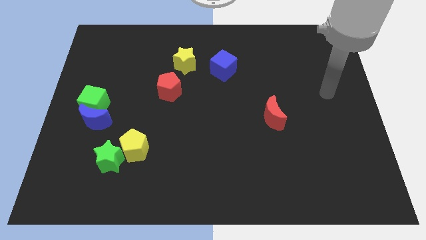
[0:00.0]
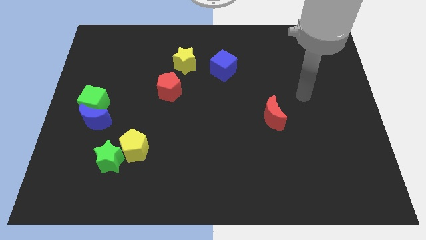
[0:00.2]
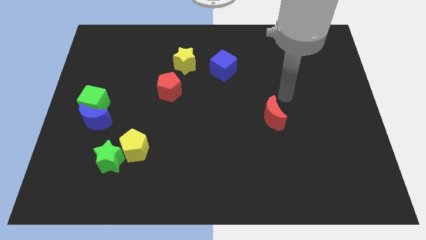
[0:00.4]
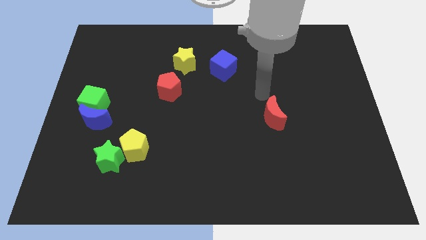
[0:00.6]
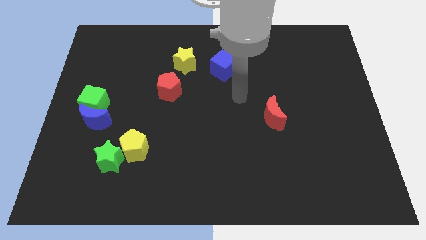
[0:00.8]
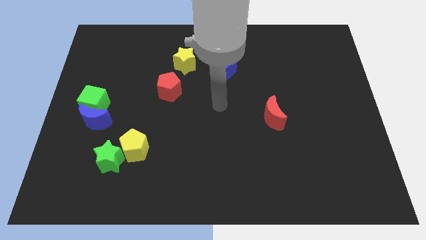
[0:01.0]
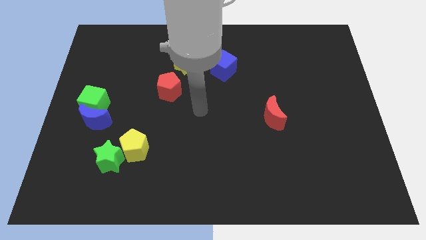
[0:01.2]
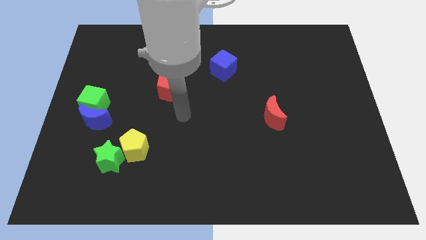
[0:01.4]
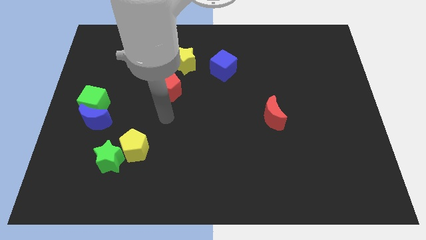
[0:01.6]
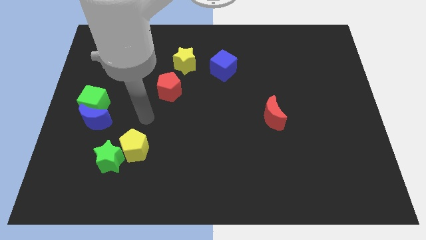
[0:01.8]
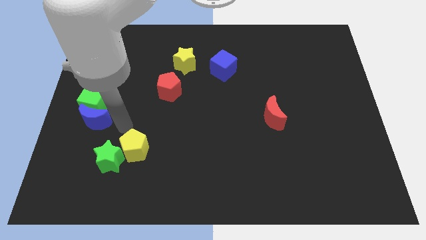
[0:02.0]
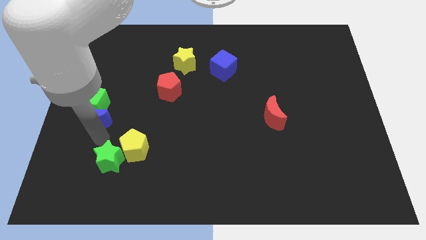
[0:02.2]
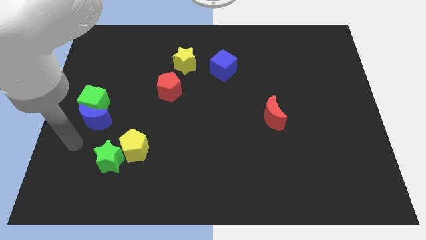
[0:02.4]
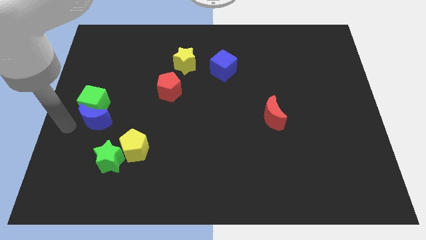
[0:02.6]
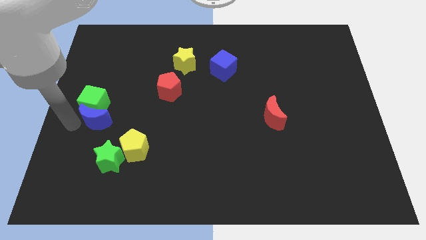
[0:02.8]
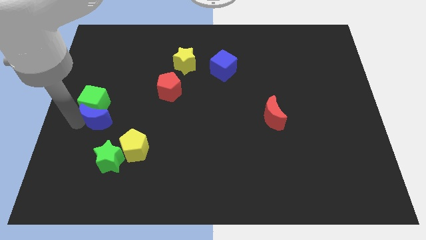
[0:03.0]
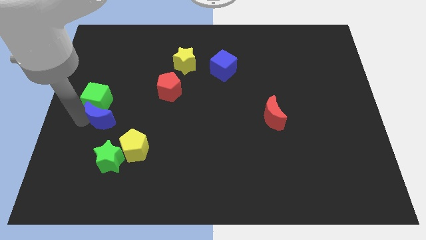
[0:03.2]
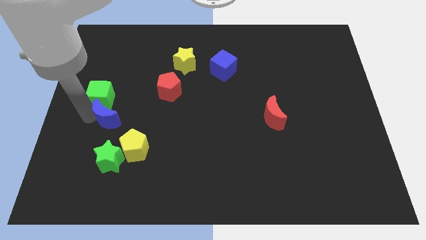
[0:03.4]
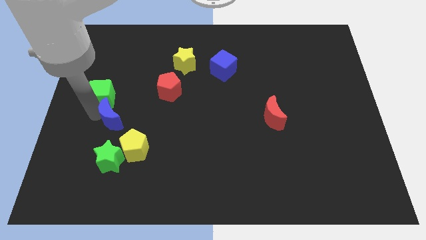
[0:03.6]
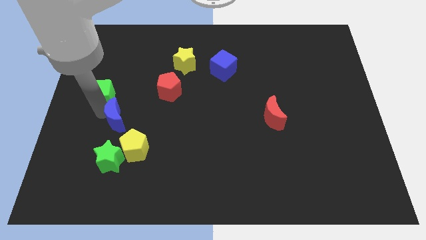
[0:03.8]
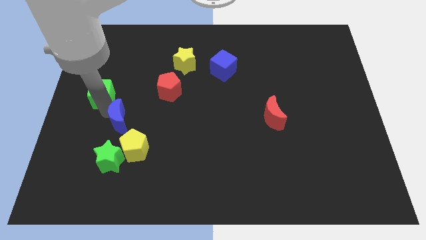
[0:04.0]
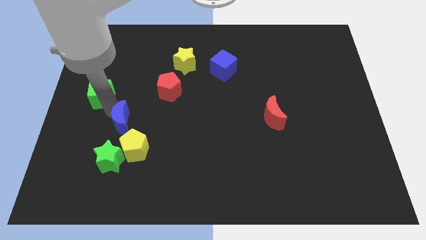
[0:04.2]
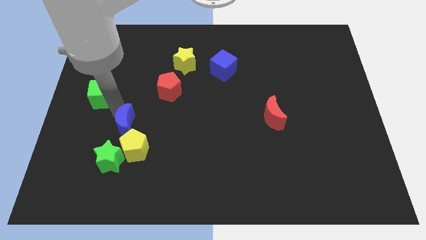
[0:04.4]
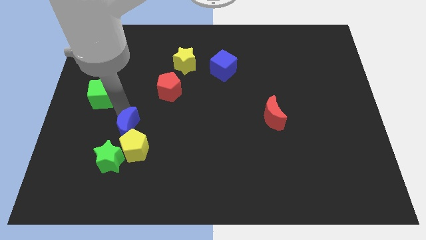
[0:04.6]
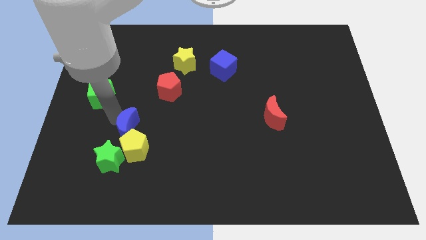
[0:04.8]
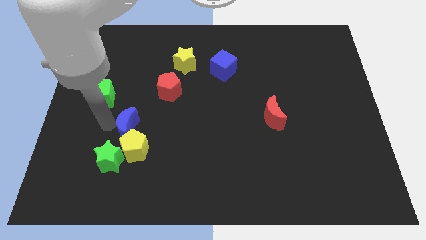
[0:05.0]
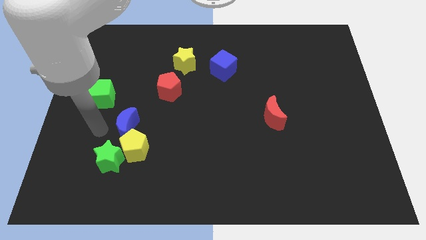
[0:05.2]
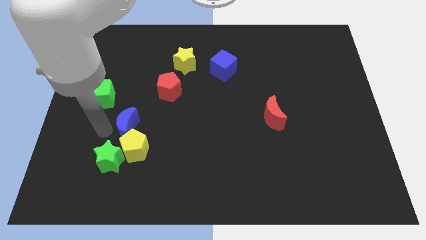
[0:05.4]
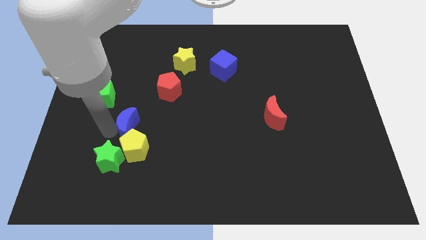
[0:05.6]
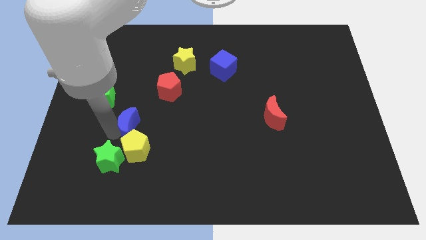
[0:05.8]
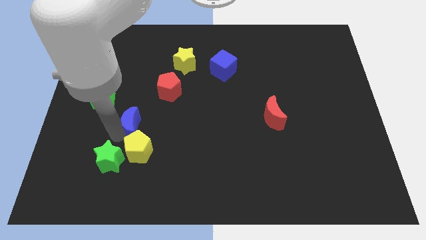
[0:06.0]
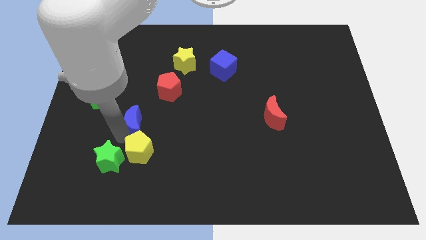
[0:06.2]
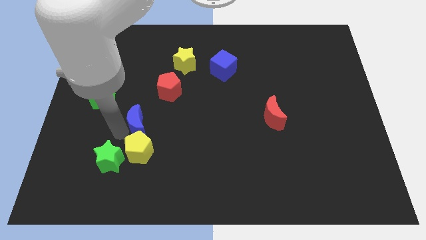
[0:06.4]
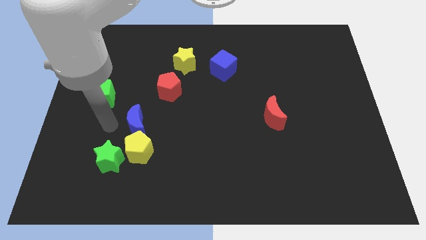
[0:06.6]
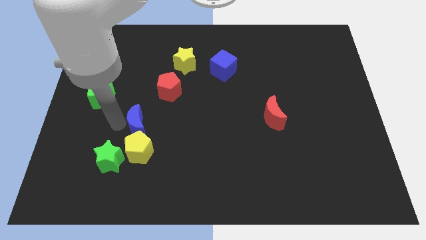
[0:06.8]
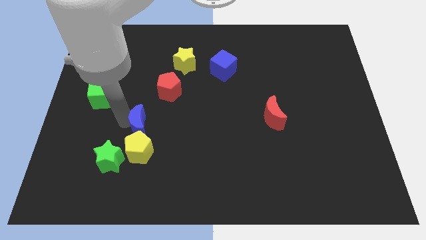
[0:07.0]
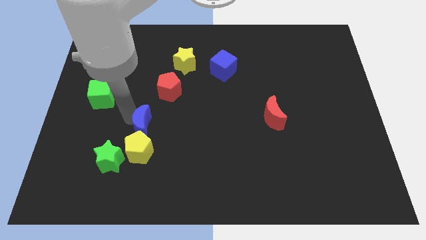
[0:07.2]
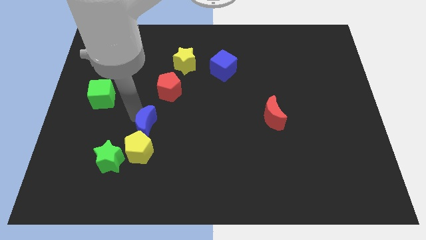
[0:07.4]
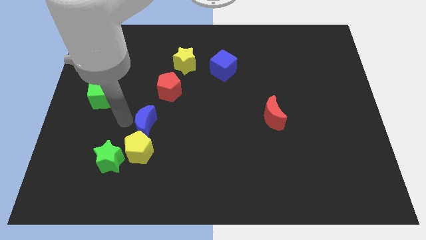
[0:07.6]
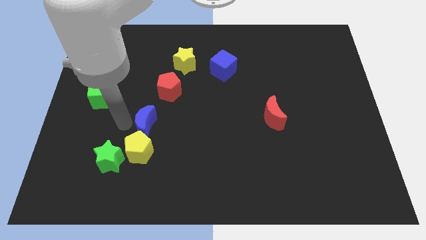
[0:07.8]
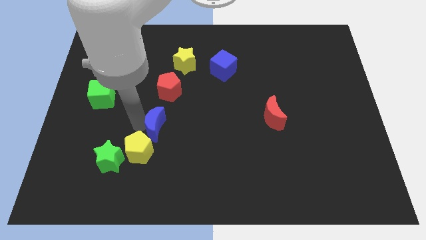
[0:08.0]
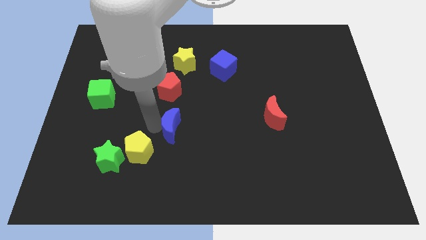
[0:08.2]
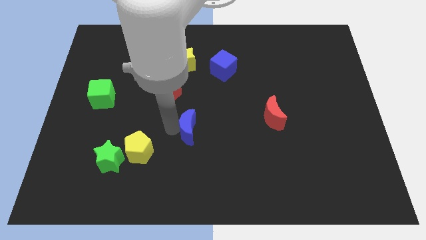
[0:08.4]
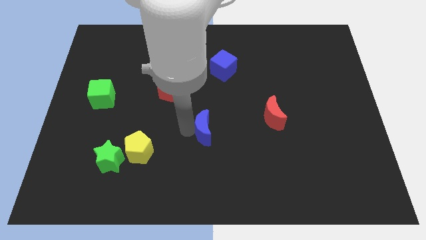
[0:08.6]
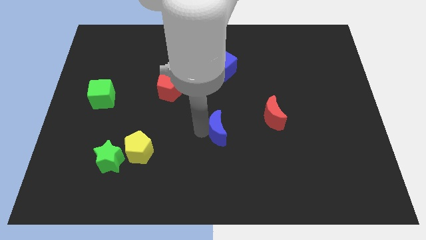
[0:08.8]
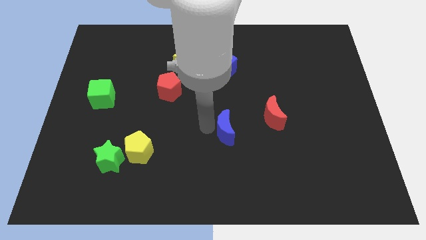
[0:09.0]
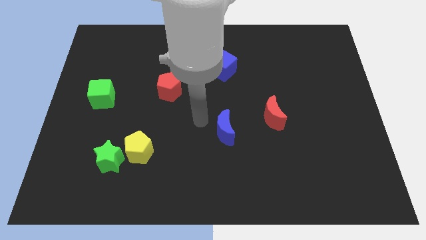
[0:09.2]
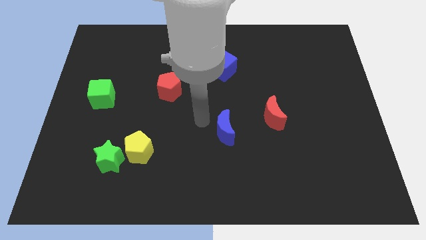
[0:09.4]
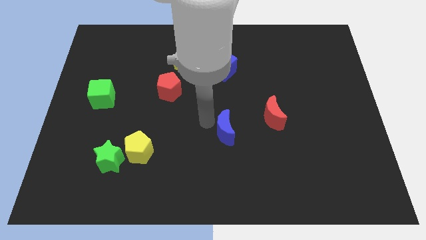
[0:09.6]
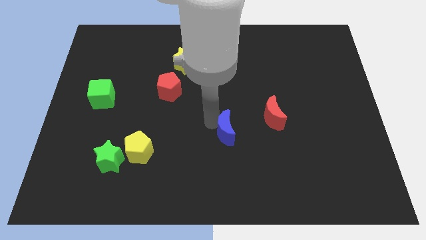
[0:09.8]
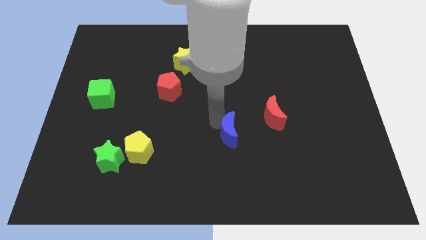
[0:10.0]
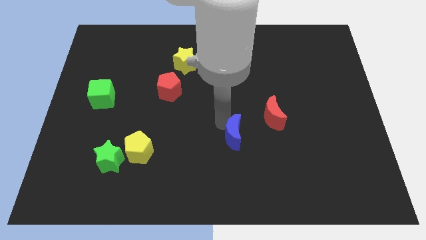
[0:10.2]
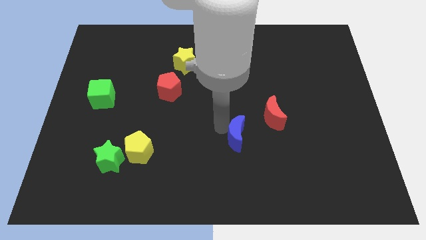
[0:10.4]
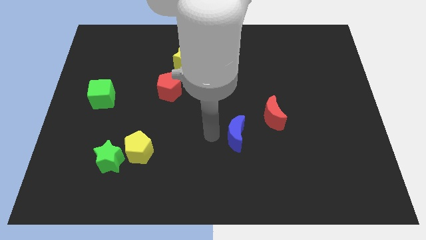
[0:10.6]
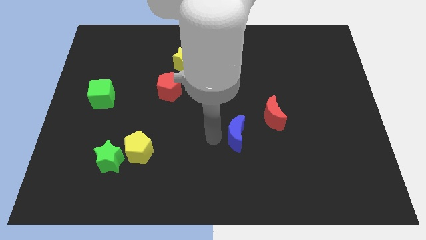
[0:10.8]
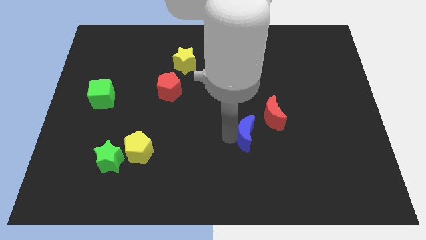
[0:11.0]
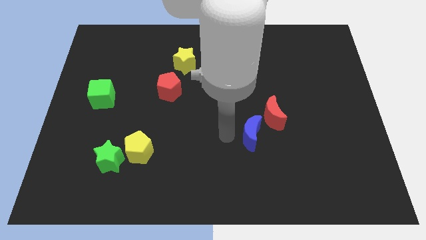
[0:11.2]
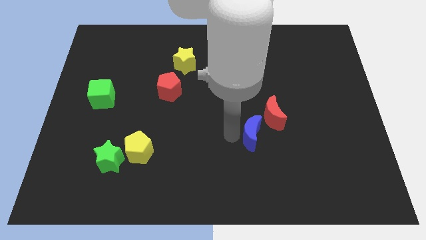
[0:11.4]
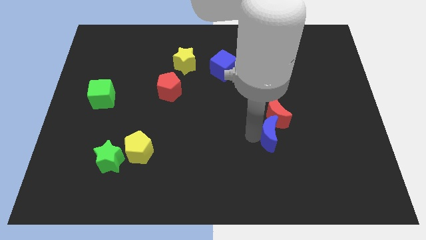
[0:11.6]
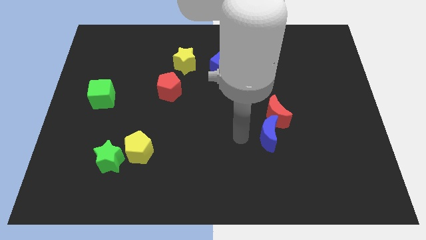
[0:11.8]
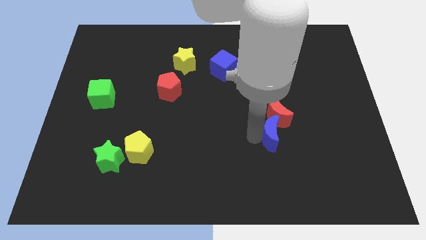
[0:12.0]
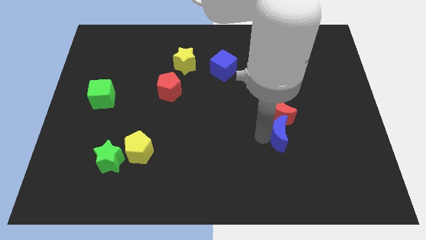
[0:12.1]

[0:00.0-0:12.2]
slide the blue moon to the bottom right side of the red moon

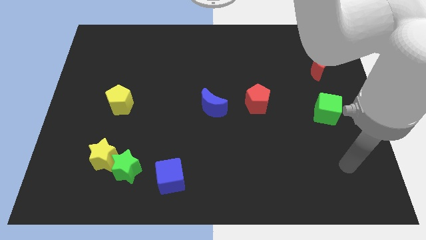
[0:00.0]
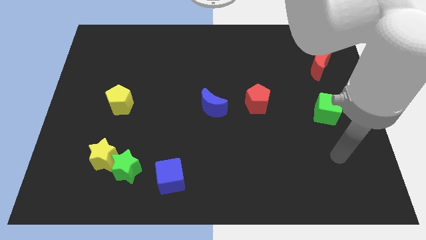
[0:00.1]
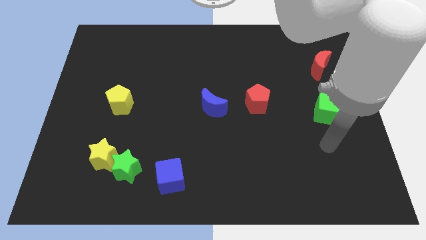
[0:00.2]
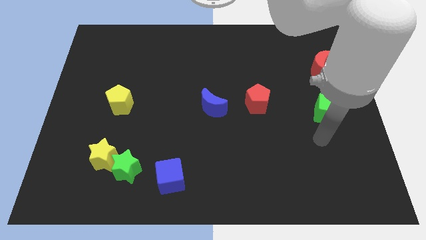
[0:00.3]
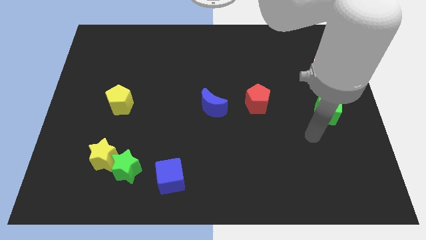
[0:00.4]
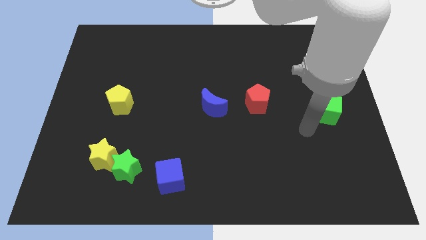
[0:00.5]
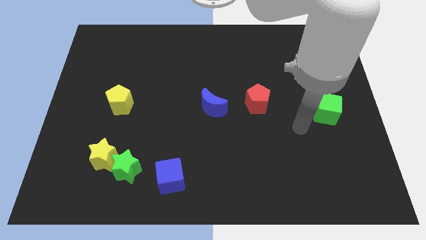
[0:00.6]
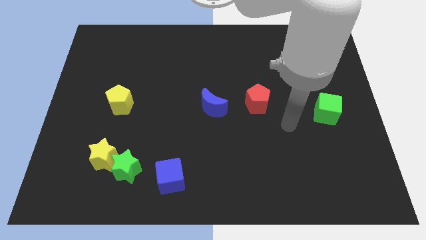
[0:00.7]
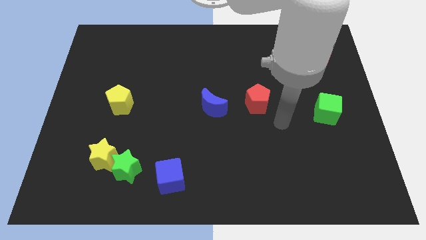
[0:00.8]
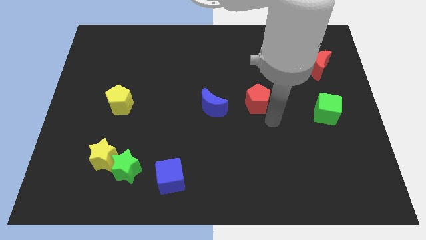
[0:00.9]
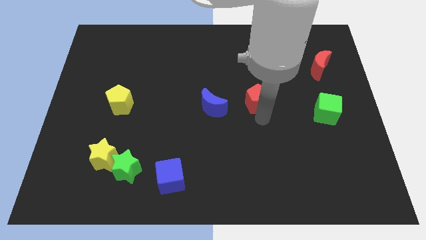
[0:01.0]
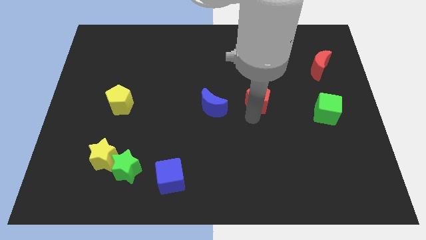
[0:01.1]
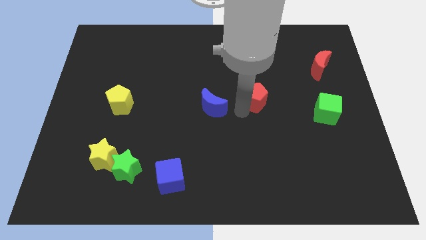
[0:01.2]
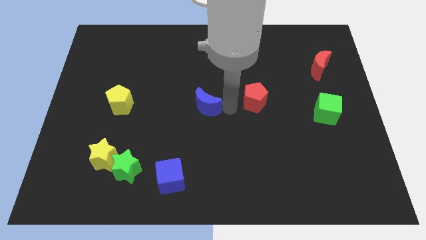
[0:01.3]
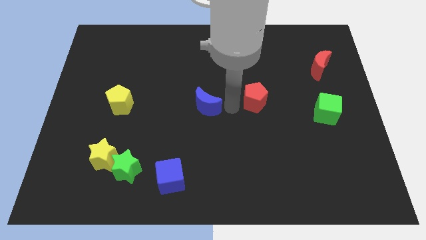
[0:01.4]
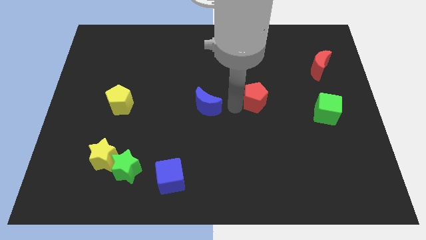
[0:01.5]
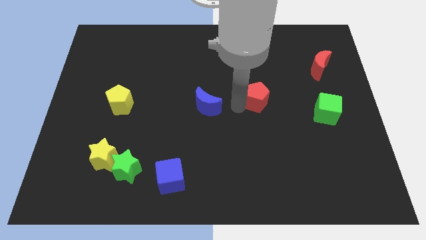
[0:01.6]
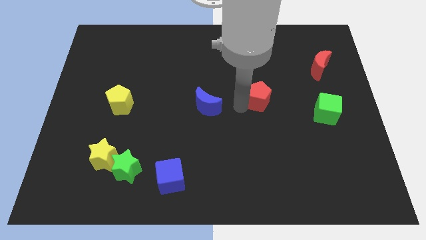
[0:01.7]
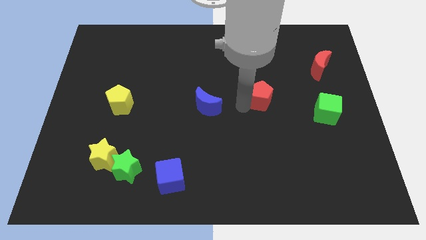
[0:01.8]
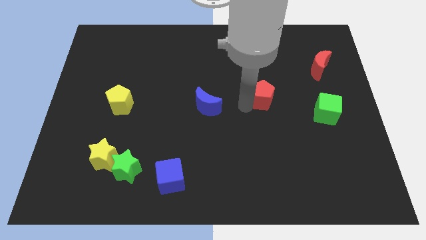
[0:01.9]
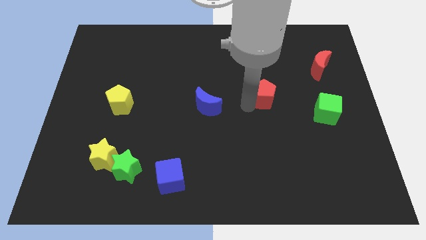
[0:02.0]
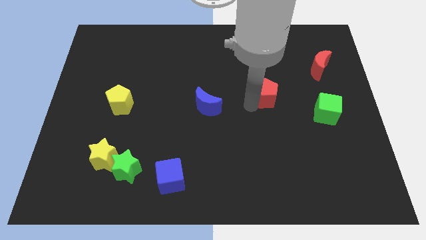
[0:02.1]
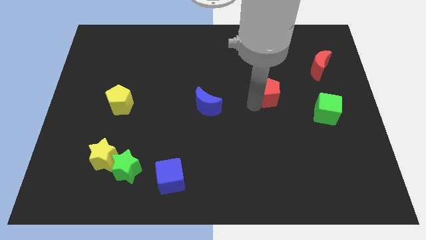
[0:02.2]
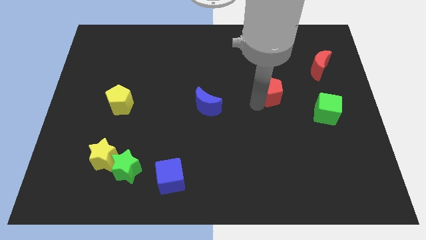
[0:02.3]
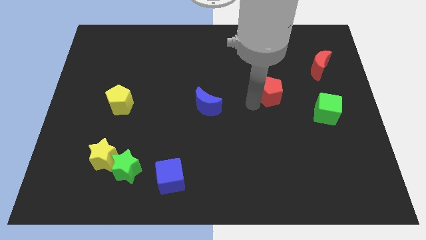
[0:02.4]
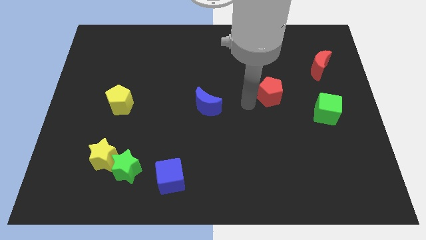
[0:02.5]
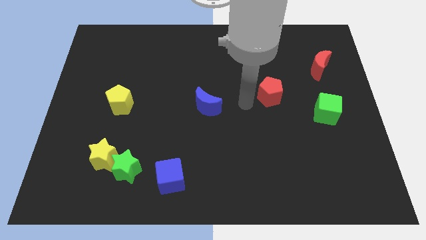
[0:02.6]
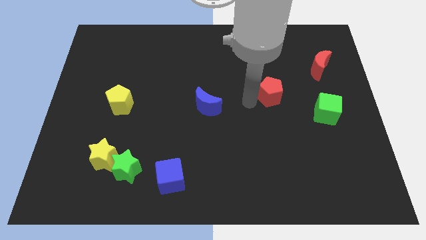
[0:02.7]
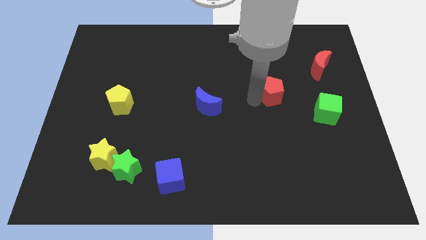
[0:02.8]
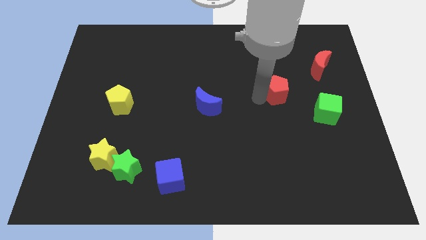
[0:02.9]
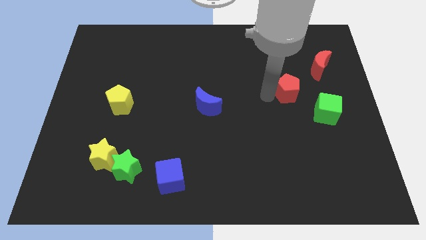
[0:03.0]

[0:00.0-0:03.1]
push the red pentagon diagonally down and to the left of the red moon
